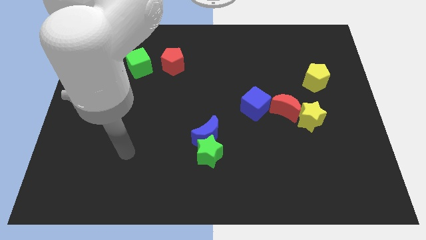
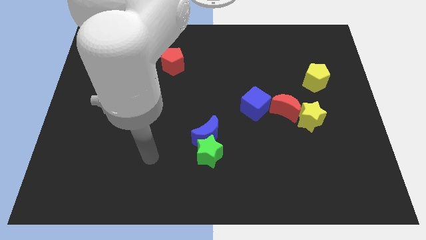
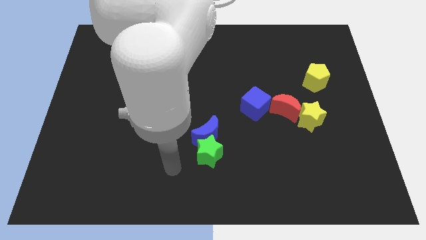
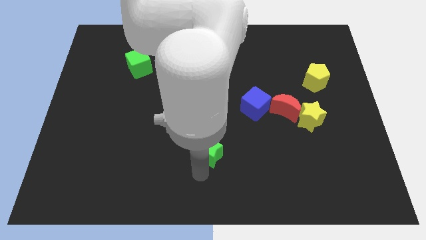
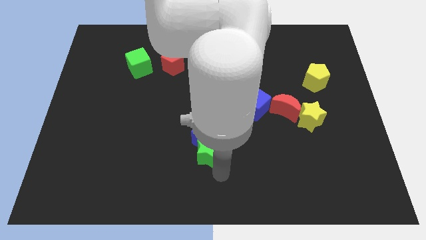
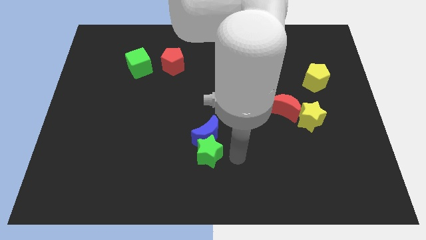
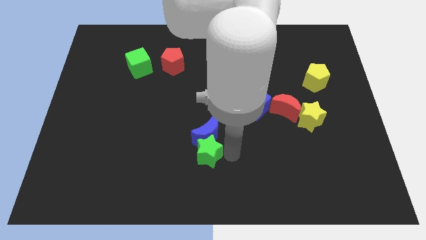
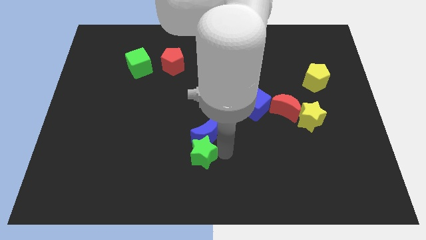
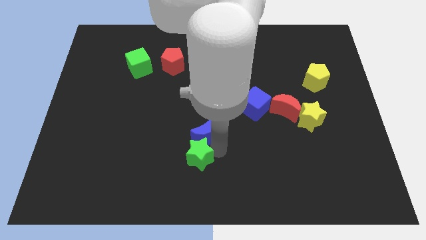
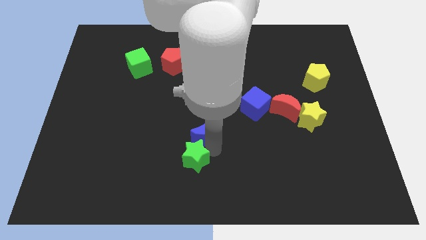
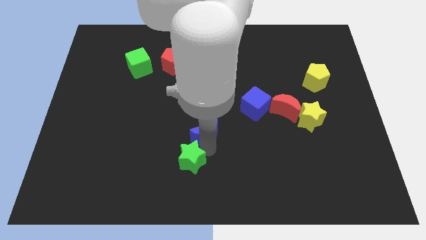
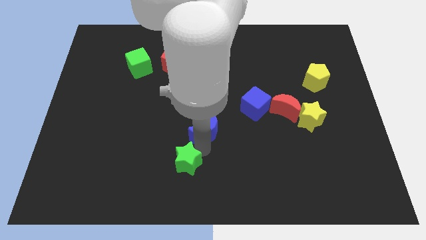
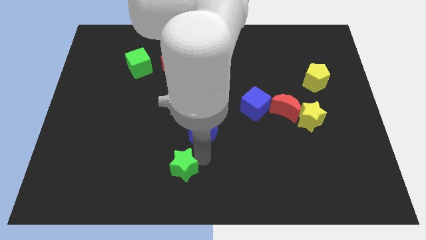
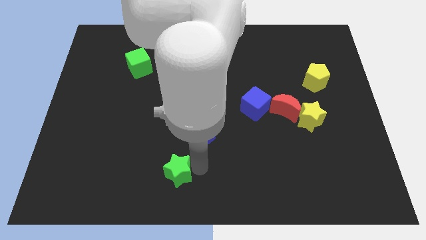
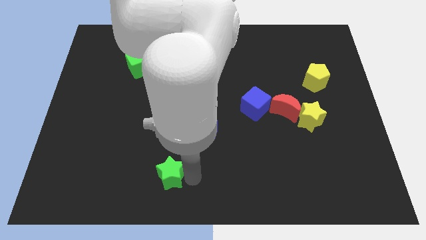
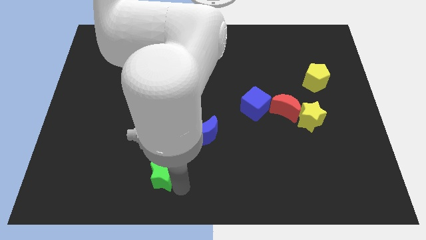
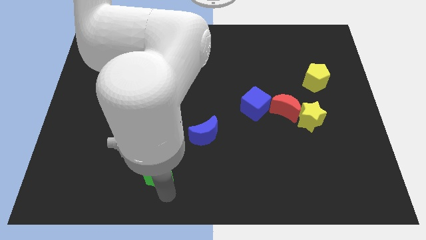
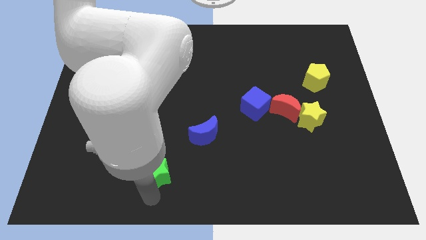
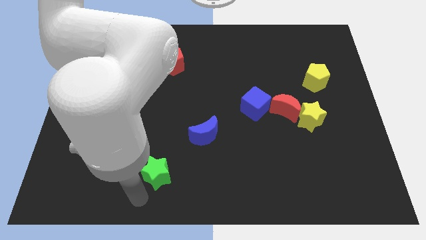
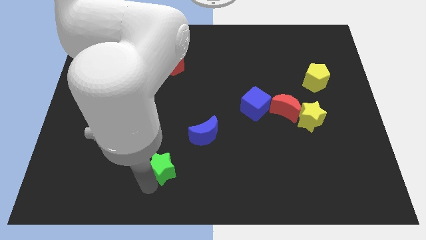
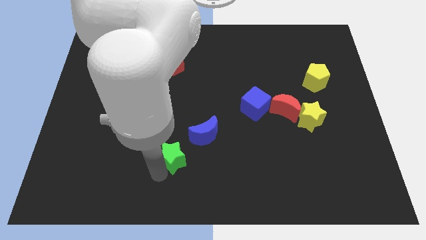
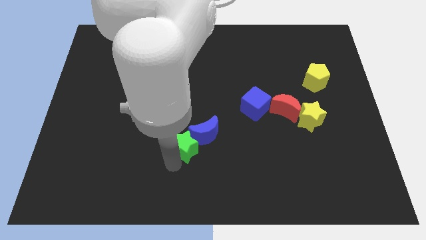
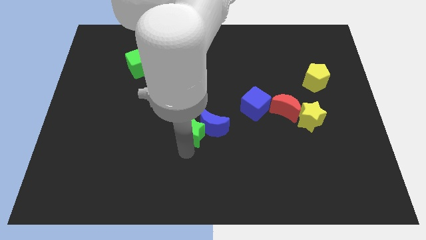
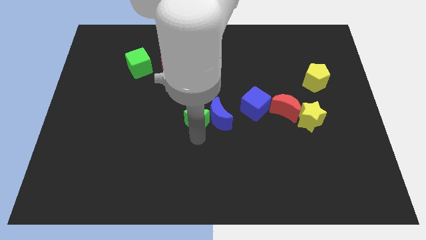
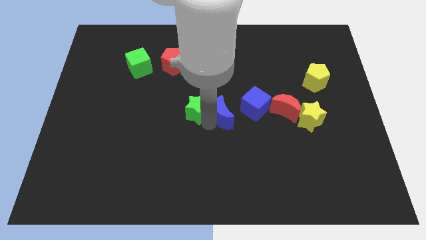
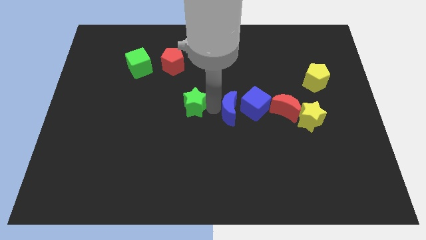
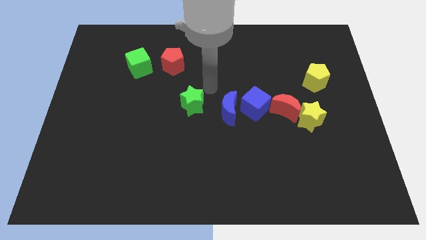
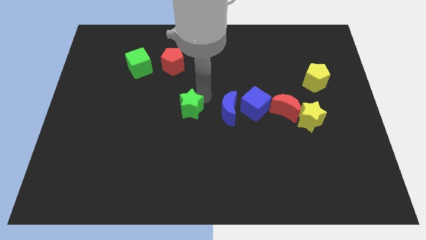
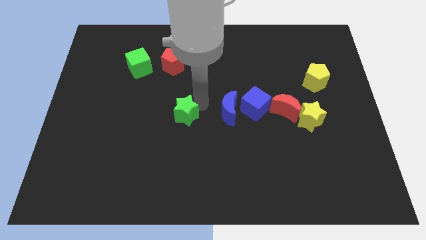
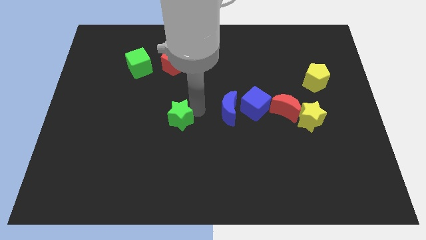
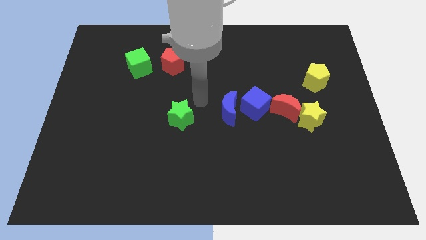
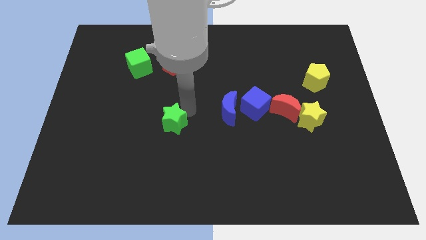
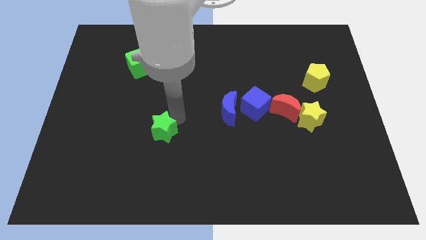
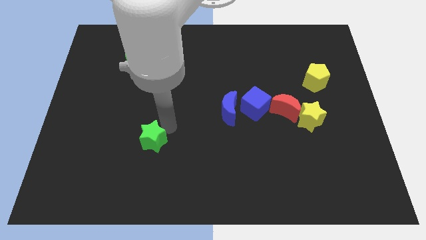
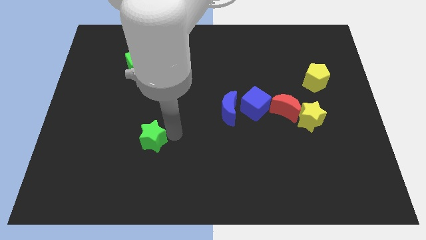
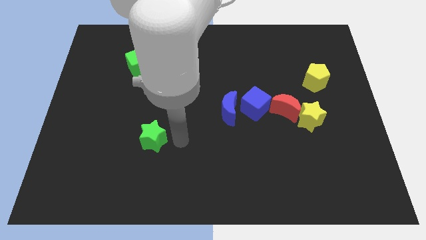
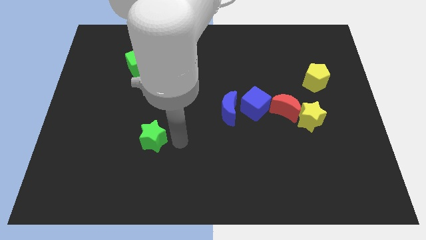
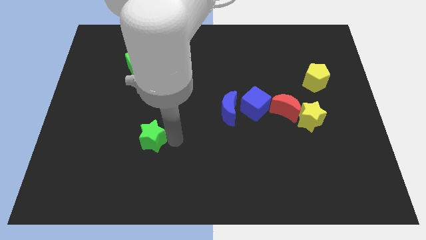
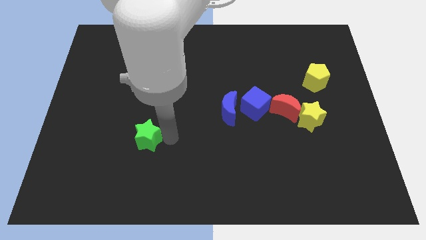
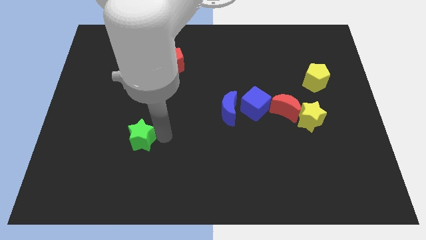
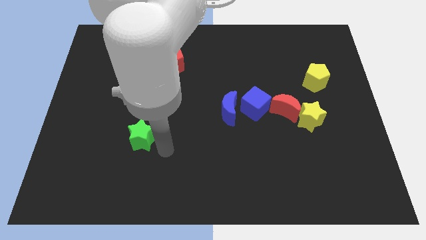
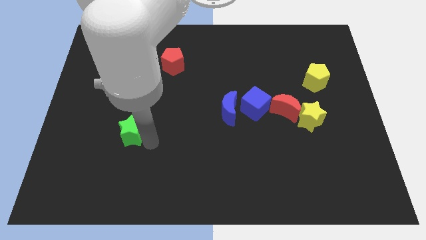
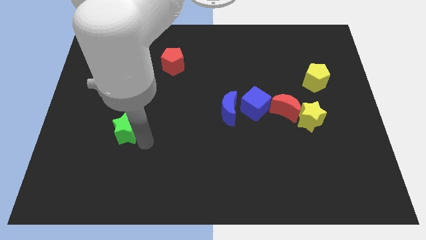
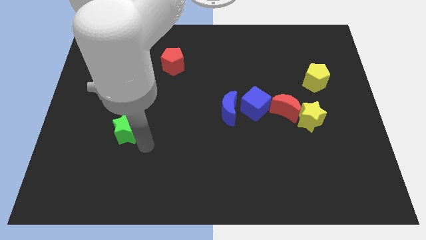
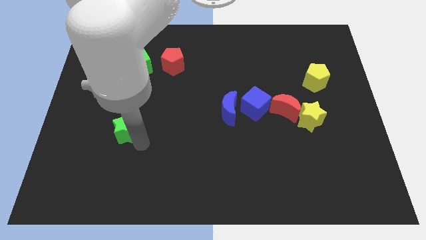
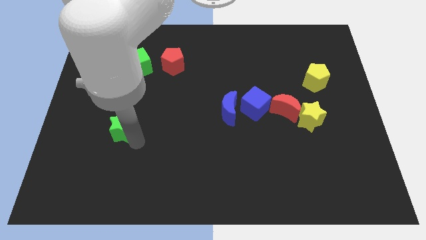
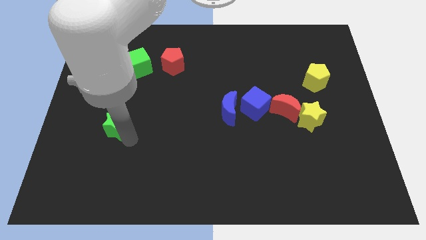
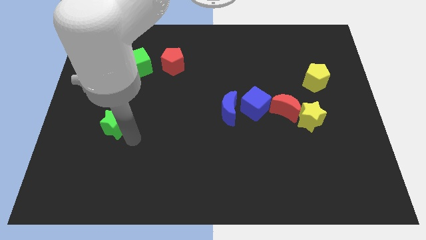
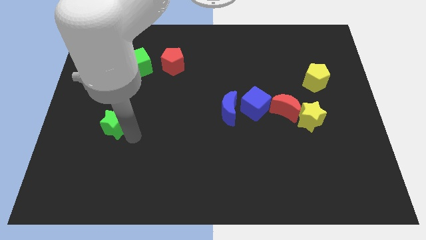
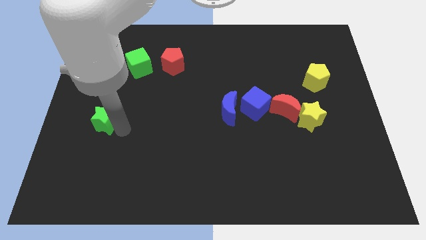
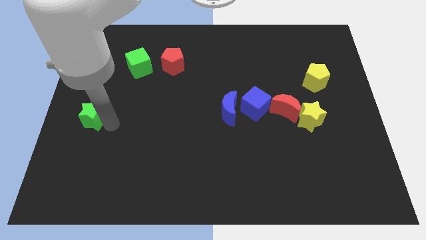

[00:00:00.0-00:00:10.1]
put the green star to the left side

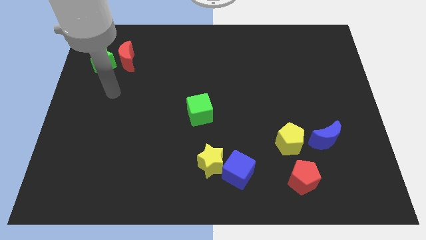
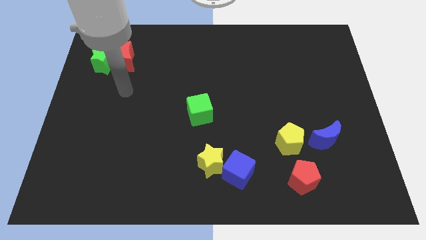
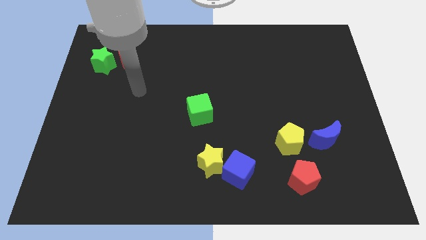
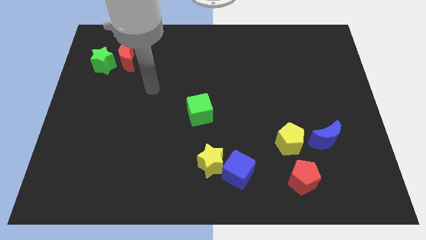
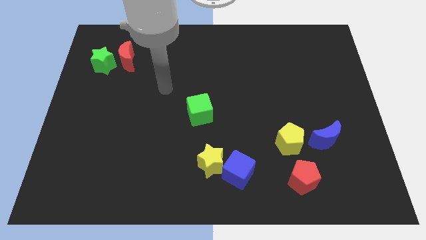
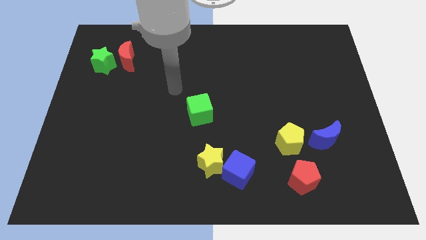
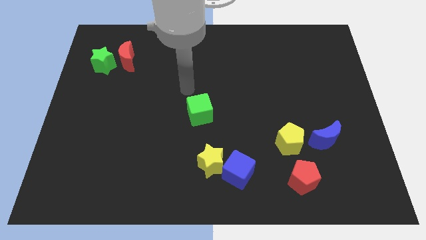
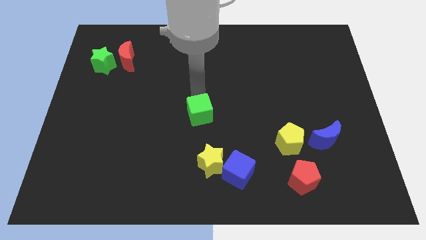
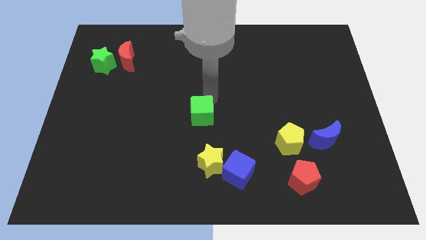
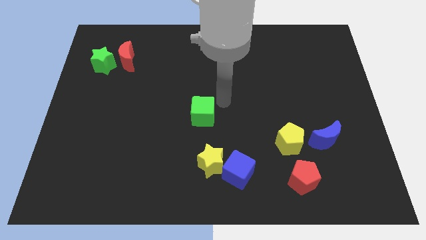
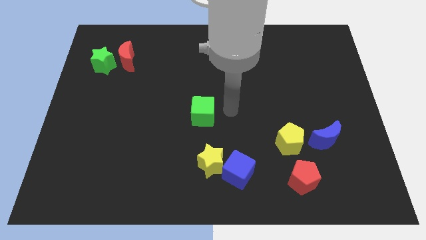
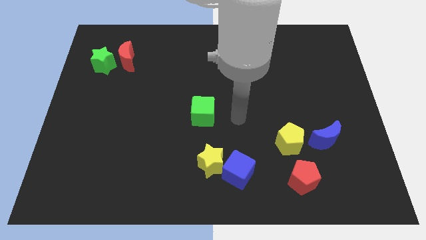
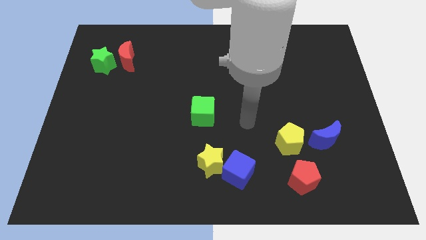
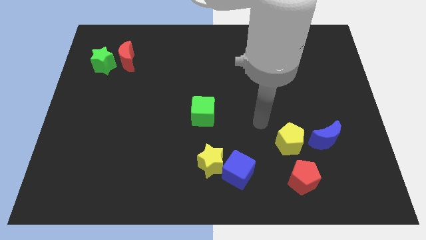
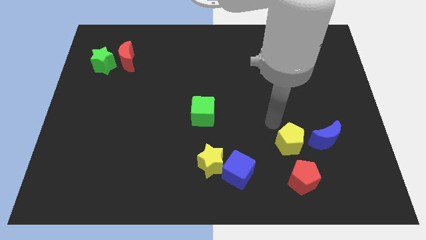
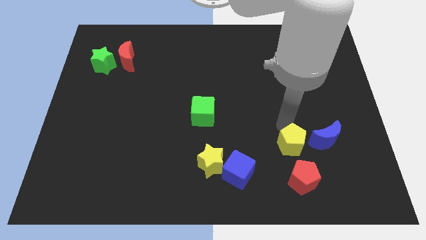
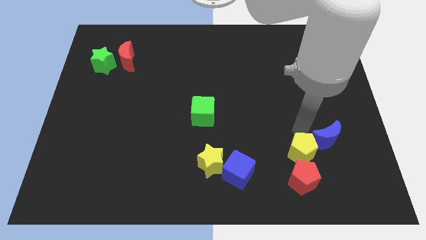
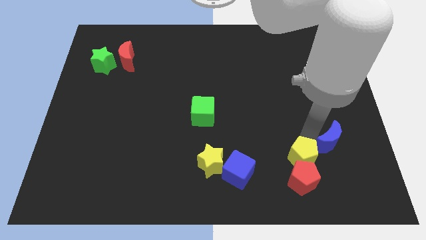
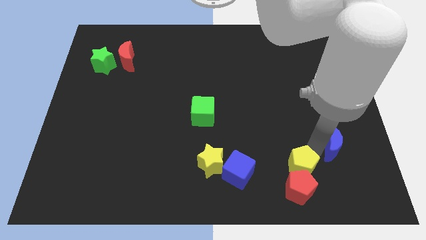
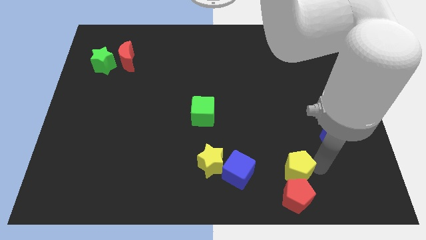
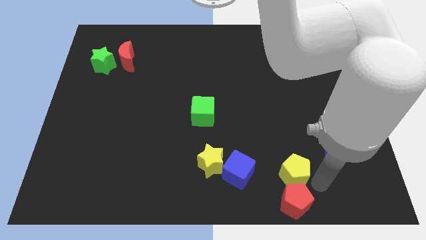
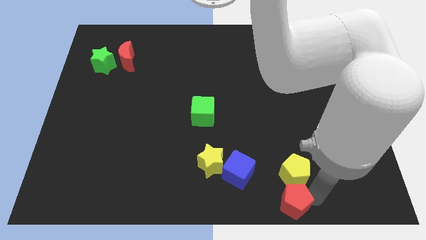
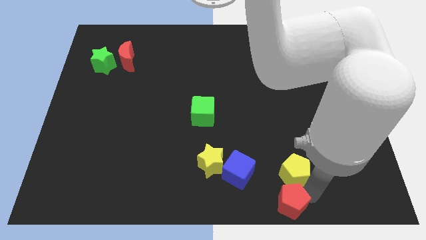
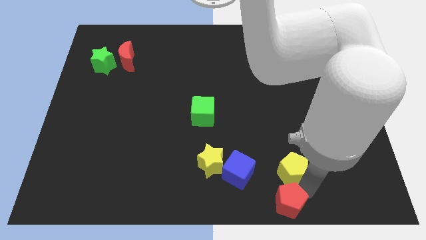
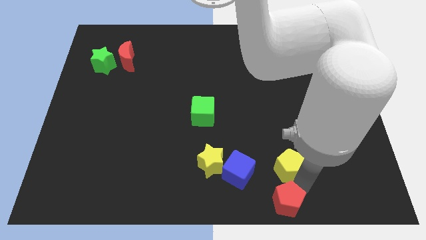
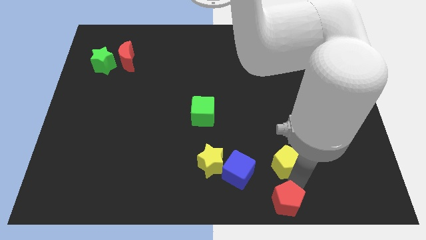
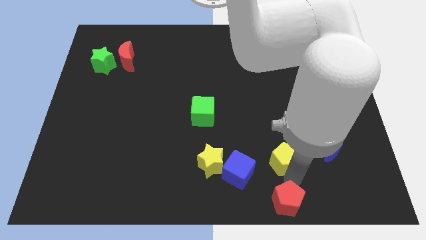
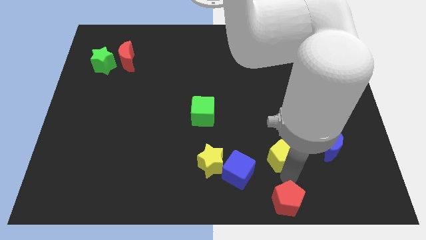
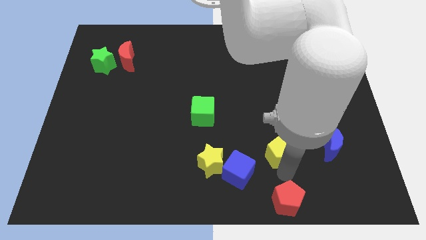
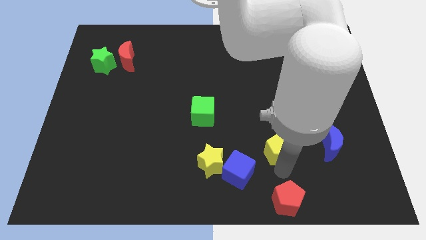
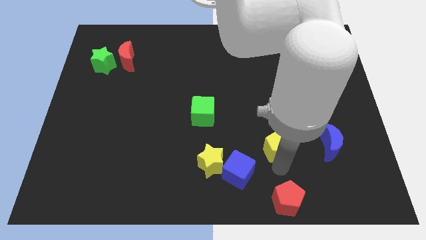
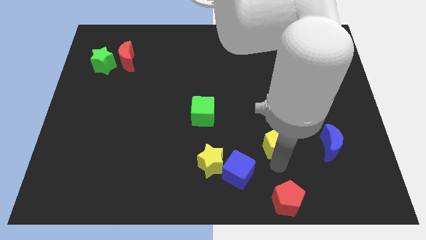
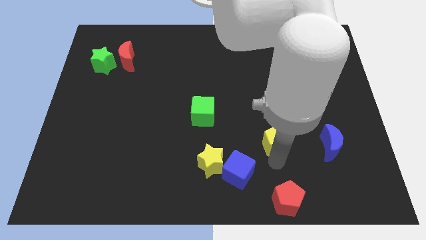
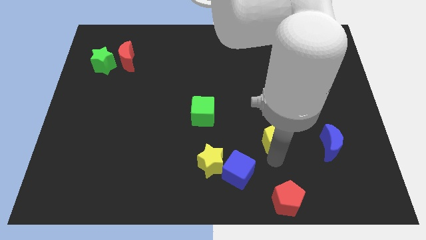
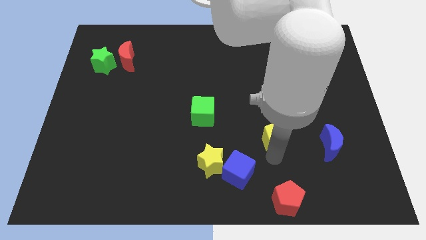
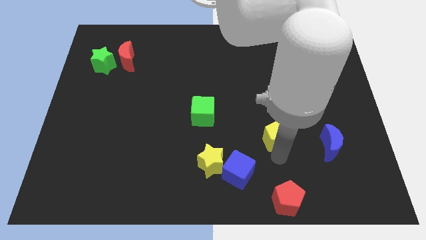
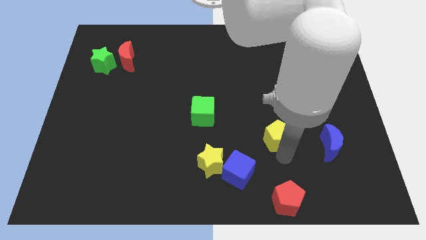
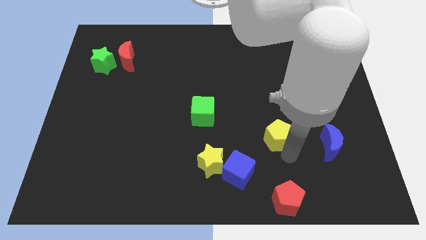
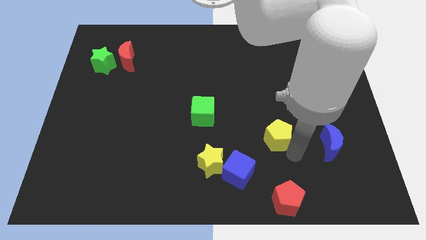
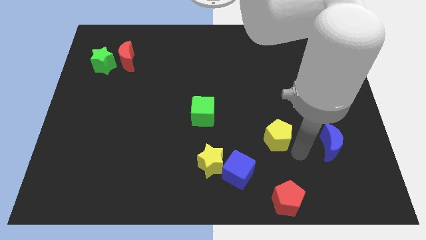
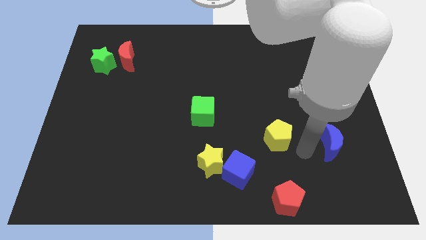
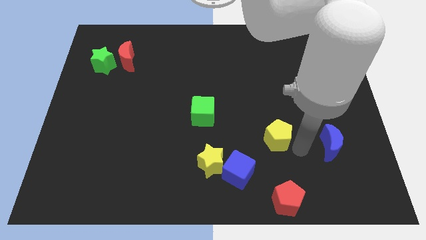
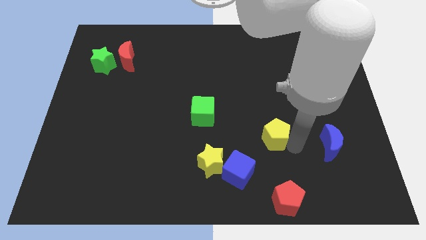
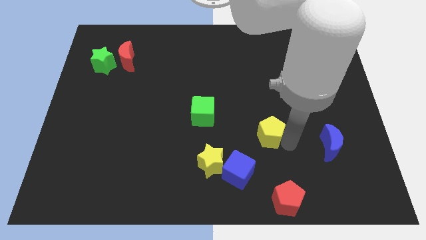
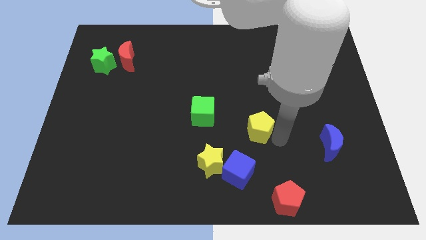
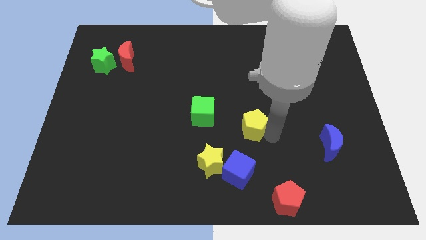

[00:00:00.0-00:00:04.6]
slide the yellow pentagon to the middle of the board
